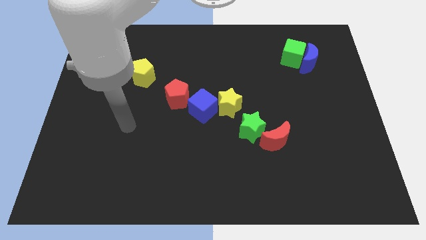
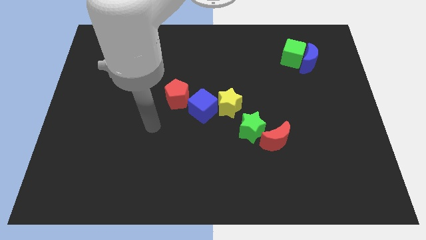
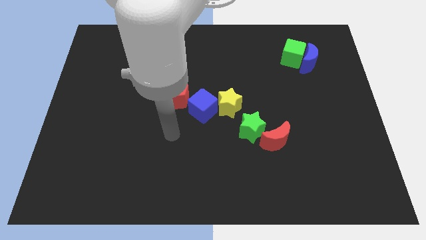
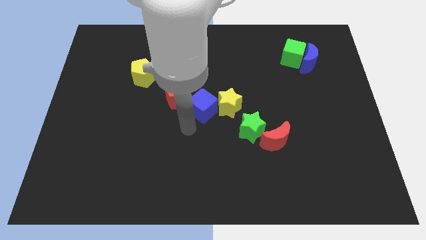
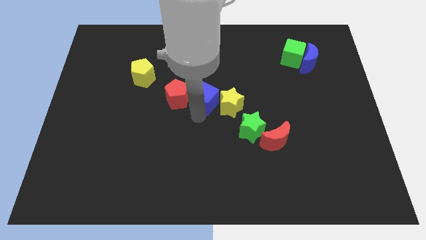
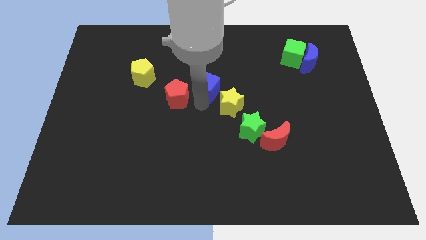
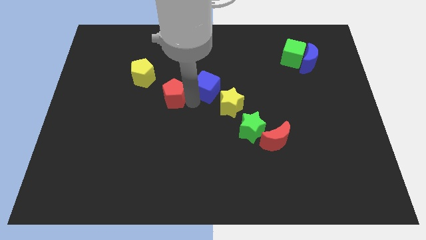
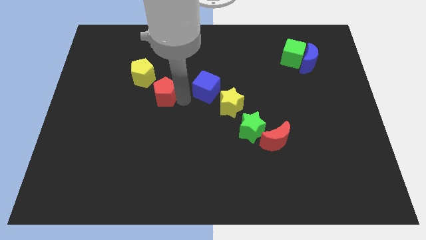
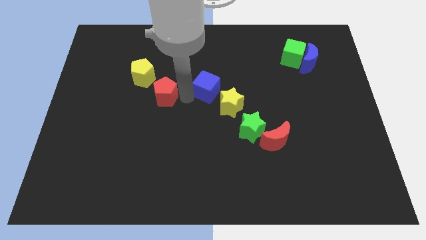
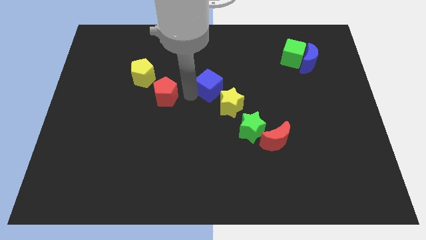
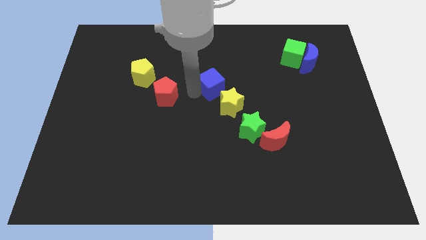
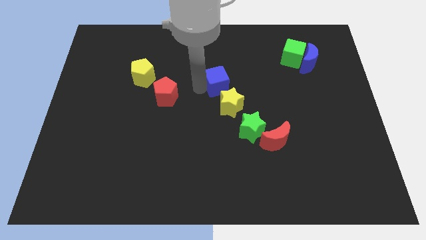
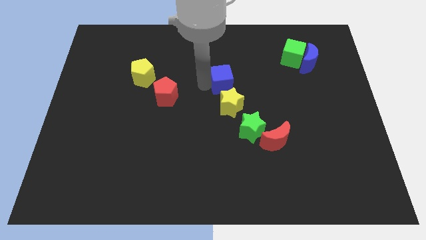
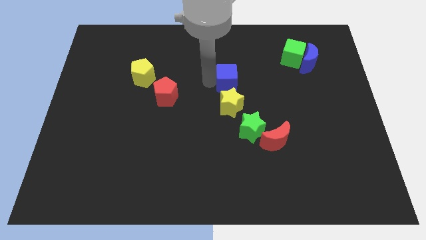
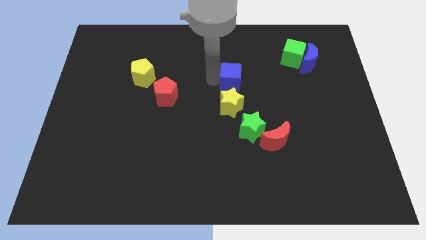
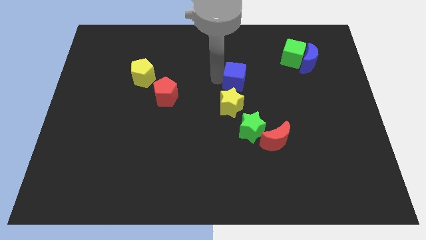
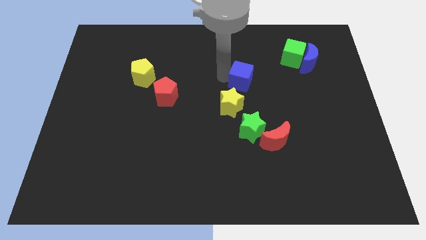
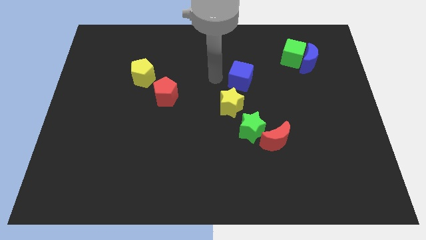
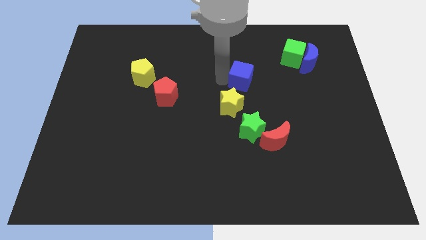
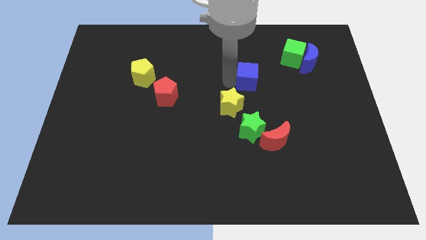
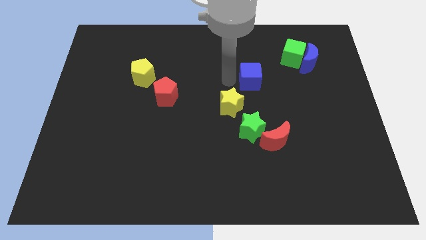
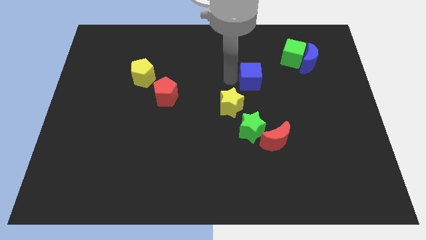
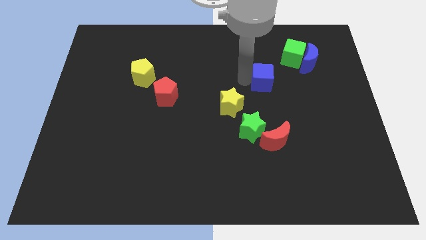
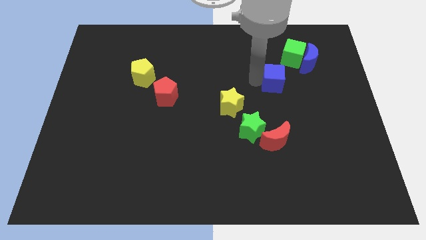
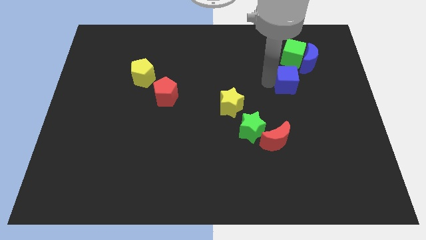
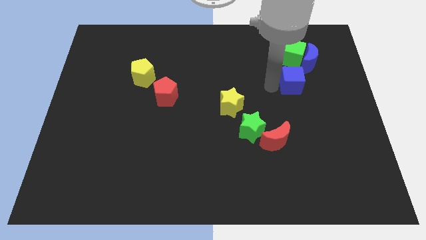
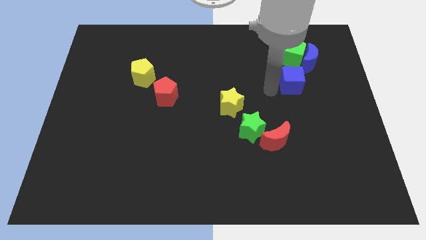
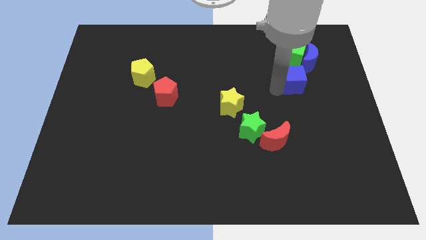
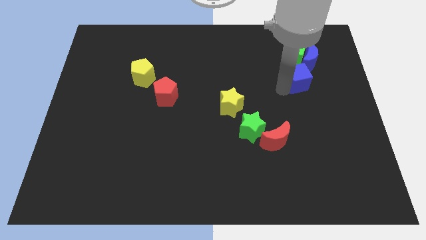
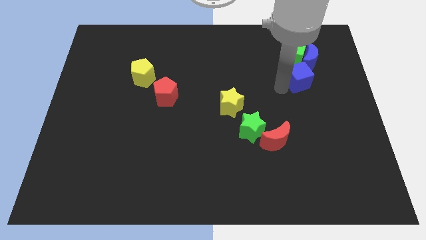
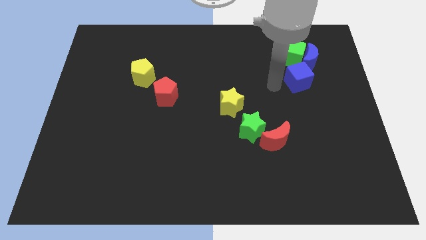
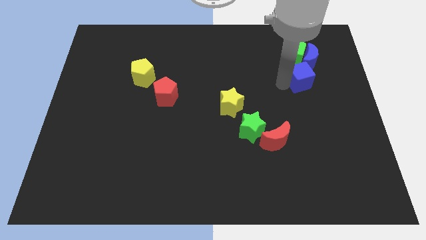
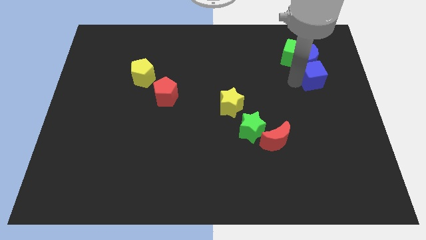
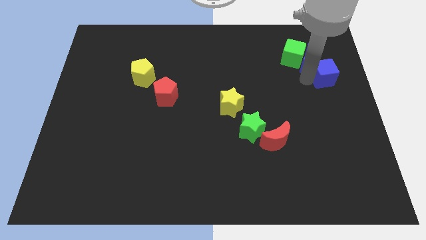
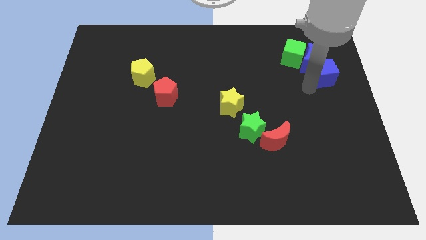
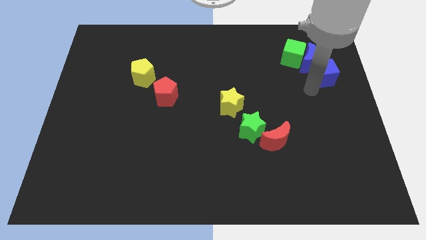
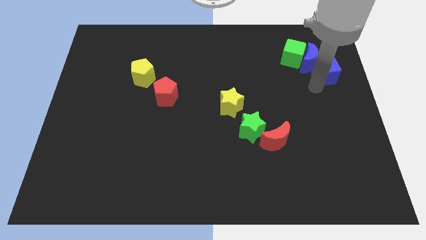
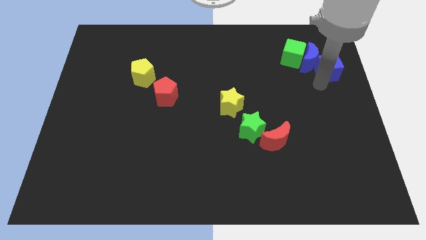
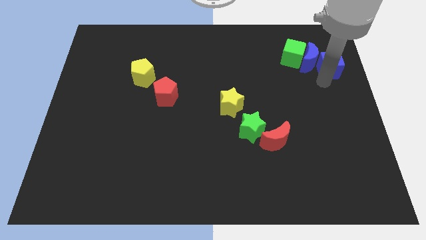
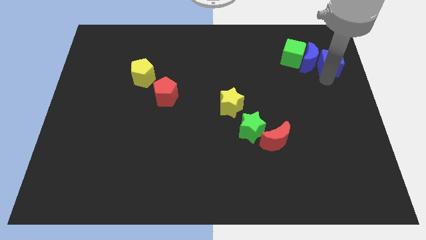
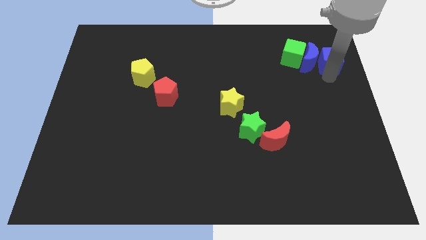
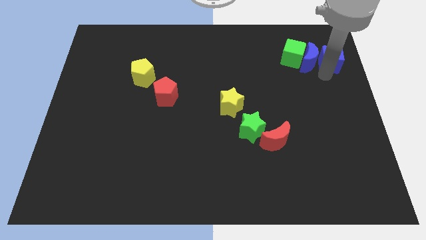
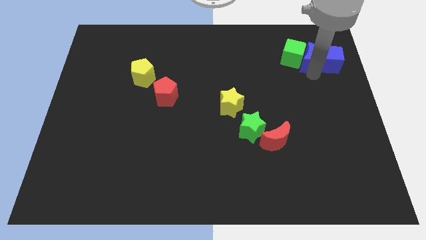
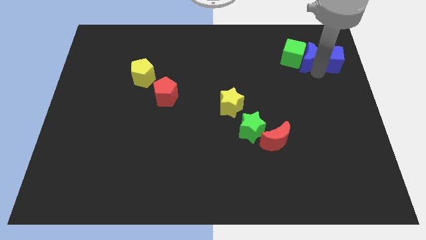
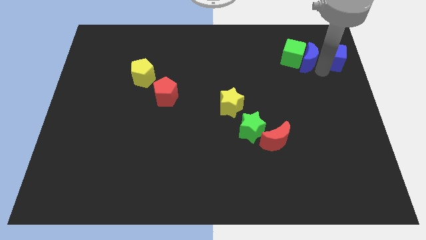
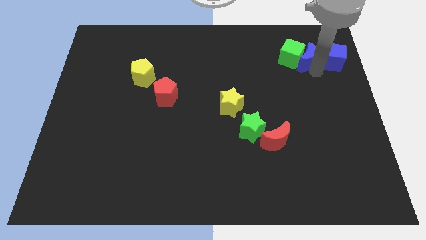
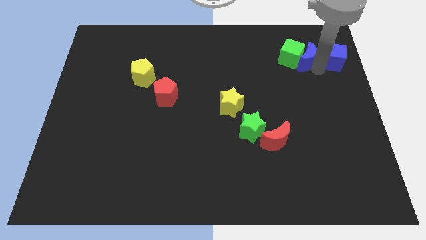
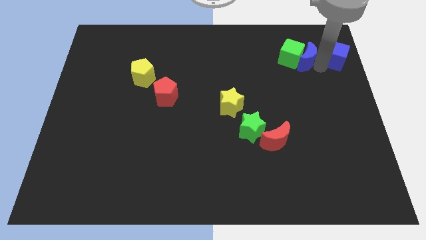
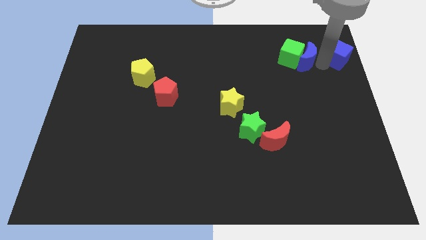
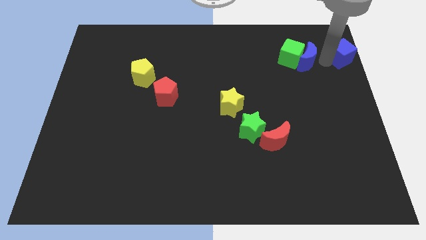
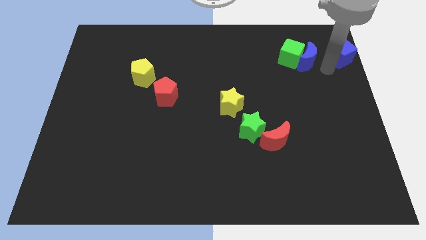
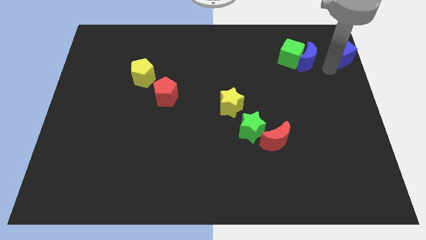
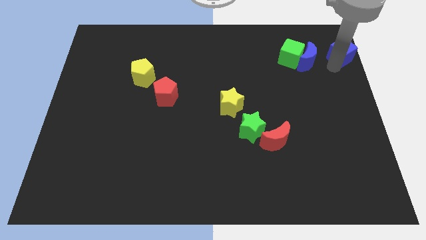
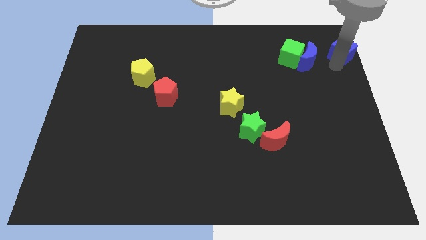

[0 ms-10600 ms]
slide the blue cube to the top right
